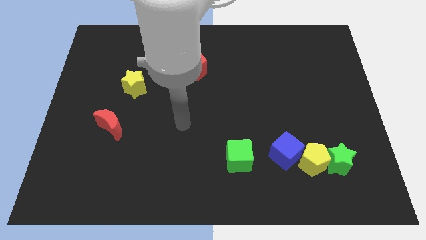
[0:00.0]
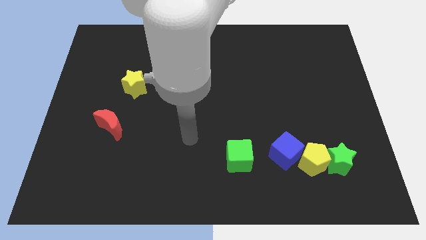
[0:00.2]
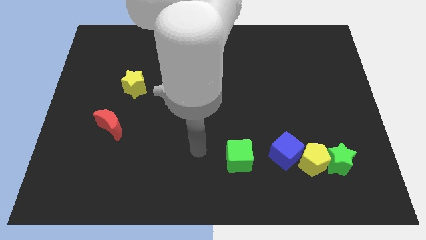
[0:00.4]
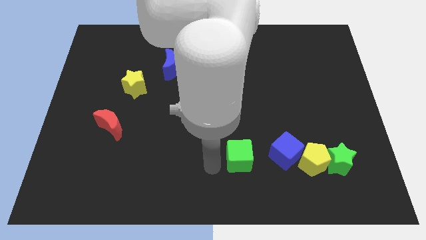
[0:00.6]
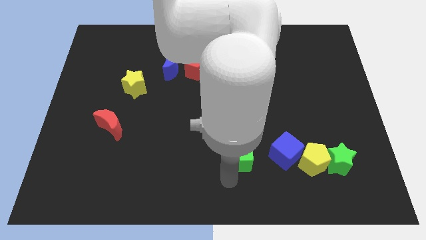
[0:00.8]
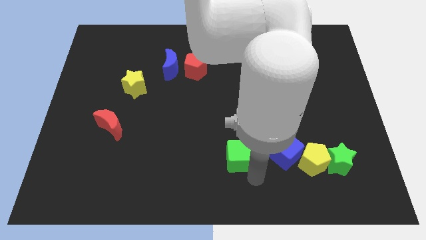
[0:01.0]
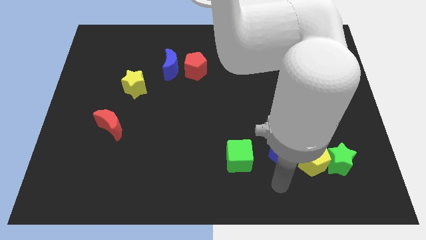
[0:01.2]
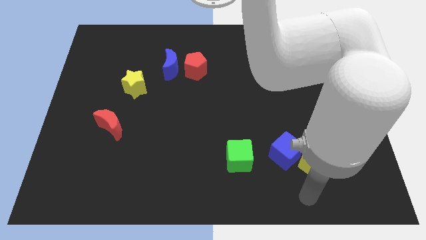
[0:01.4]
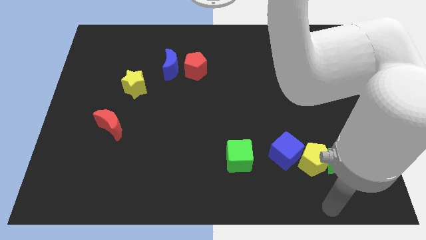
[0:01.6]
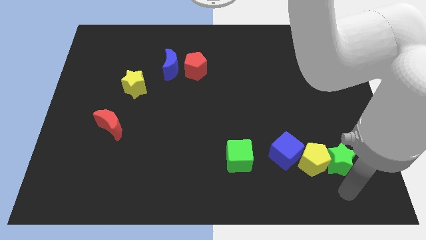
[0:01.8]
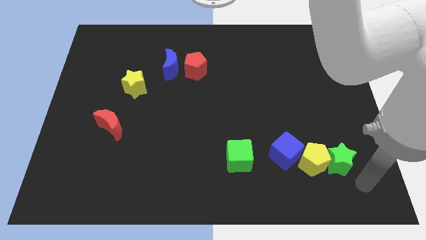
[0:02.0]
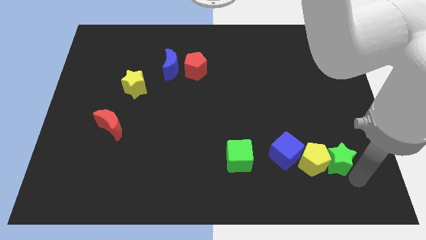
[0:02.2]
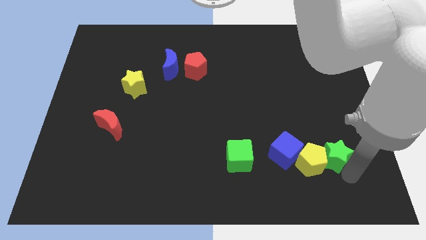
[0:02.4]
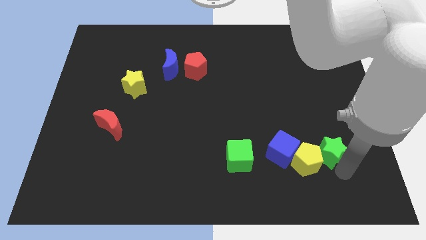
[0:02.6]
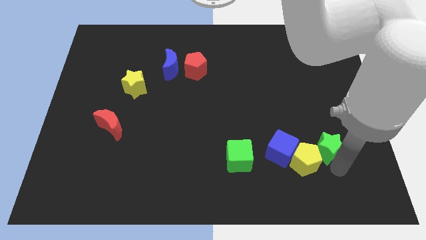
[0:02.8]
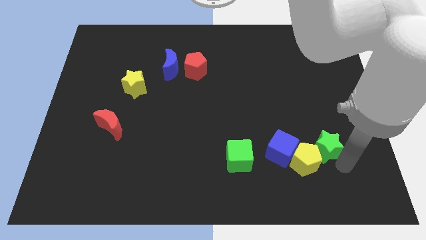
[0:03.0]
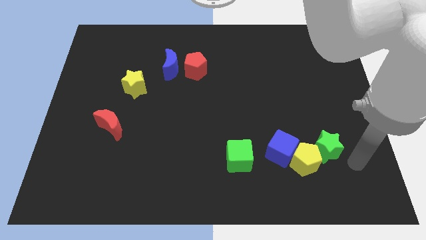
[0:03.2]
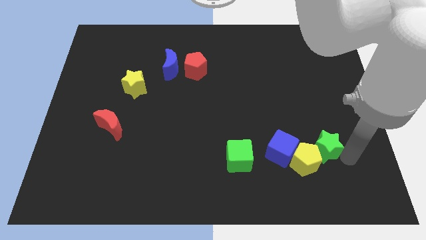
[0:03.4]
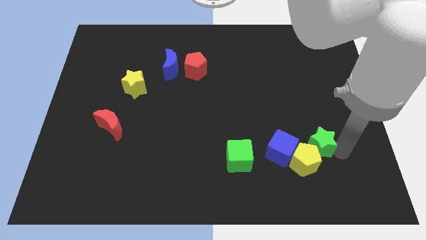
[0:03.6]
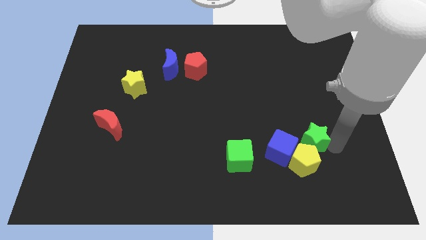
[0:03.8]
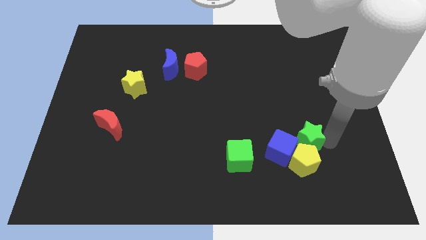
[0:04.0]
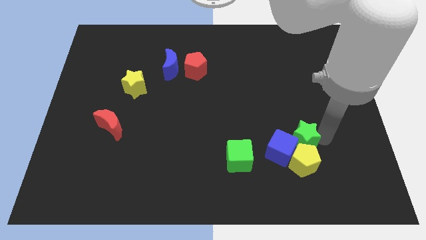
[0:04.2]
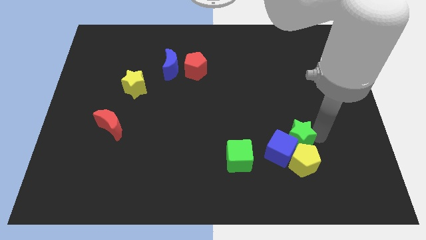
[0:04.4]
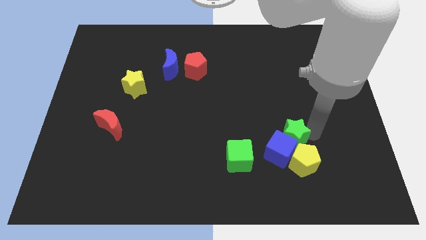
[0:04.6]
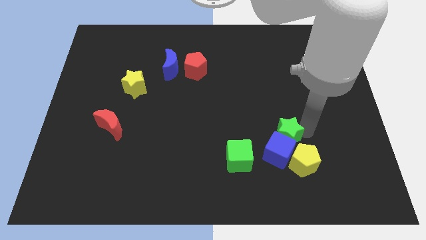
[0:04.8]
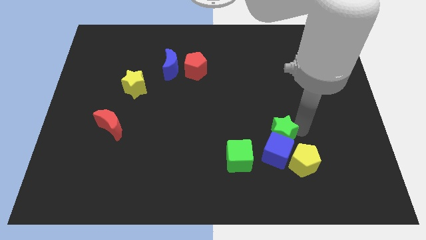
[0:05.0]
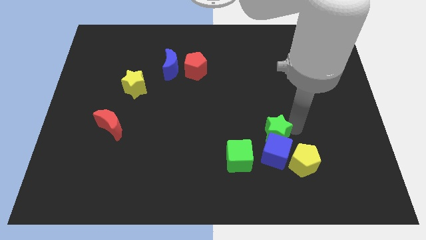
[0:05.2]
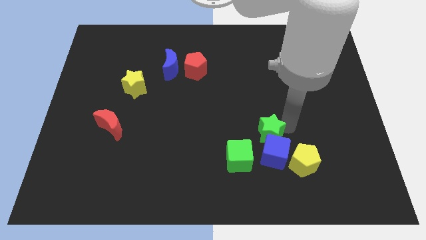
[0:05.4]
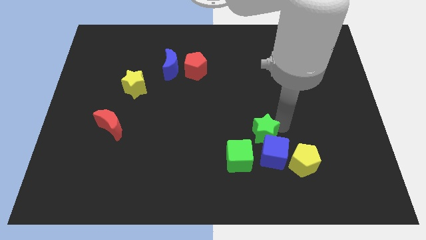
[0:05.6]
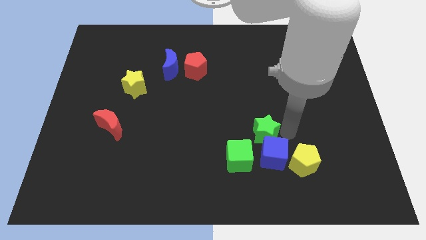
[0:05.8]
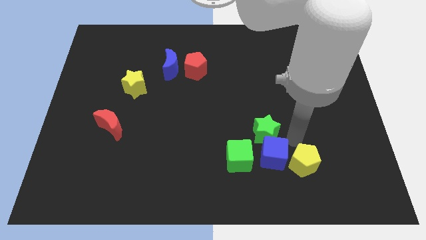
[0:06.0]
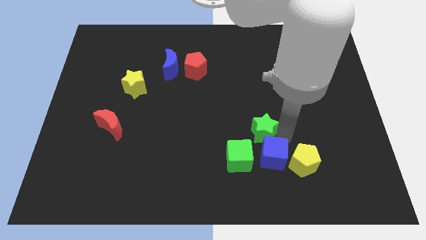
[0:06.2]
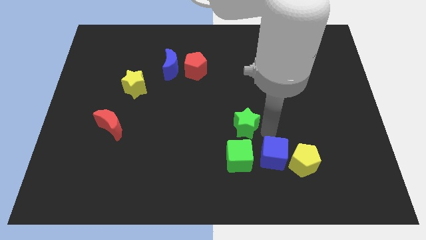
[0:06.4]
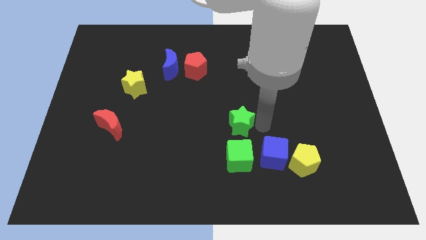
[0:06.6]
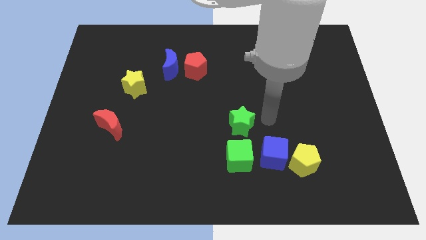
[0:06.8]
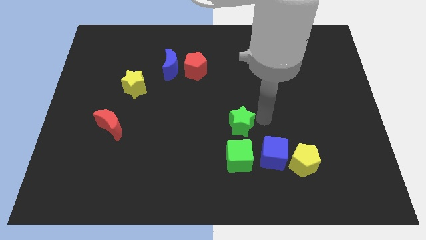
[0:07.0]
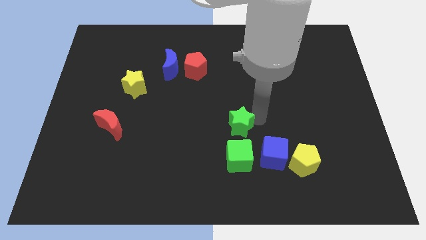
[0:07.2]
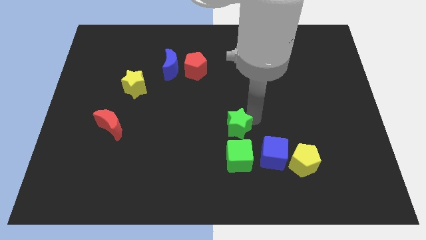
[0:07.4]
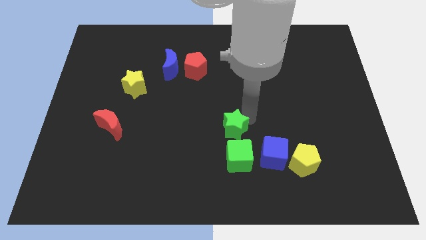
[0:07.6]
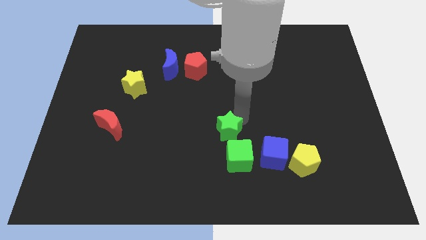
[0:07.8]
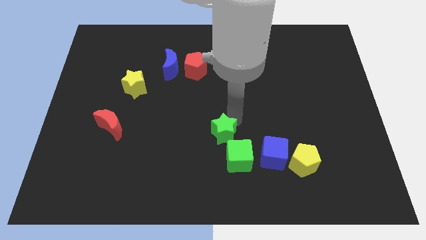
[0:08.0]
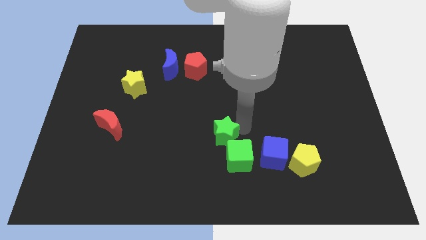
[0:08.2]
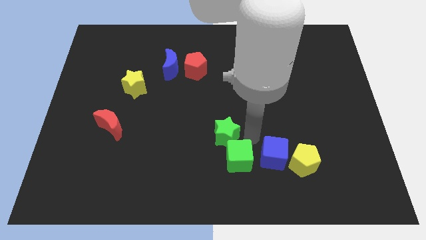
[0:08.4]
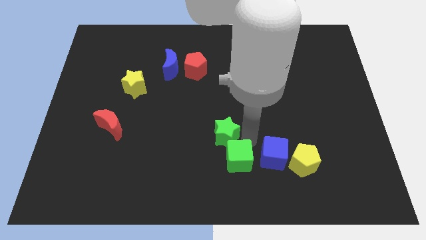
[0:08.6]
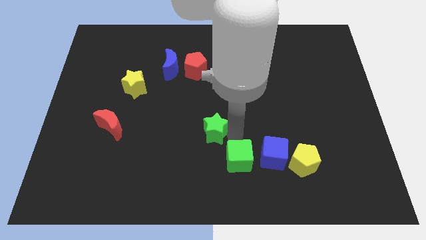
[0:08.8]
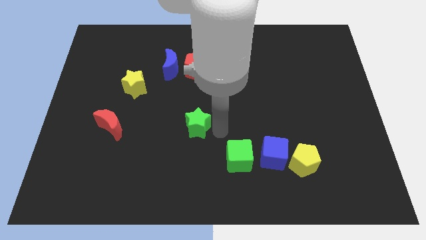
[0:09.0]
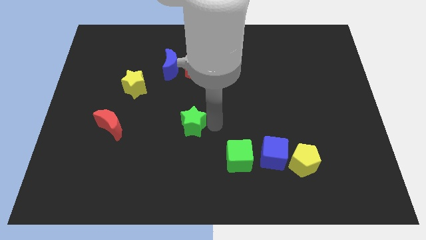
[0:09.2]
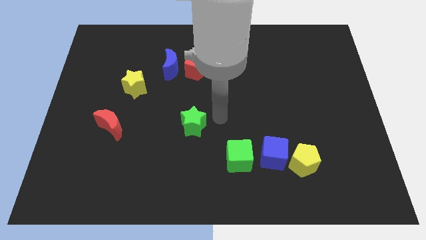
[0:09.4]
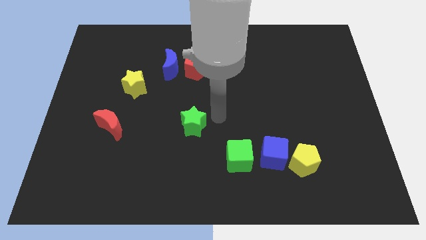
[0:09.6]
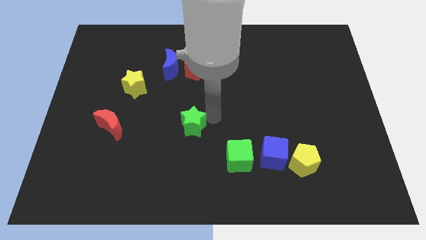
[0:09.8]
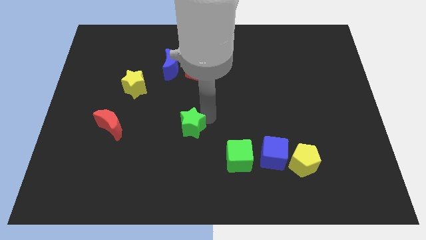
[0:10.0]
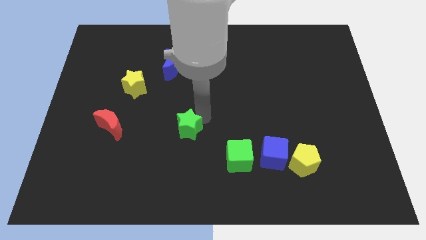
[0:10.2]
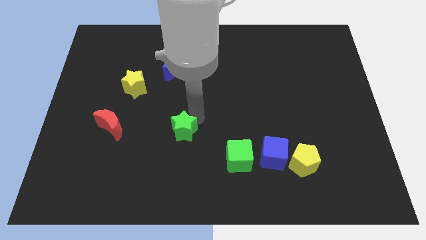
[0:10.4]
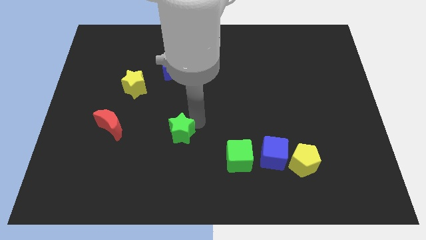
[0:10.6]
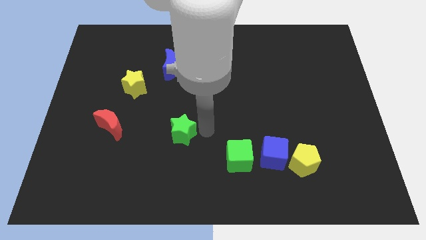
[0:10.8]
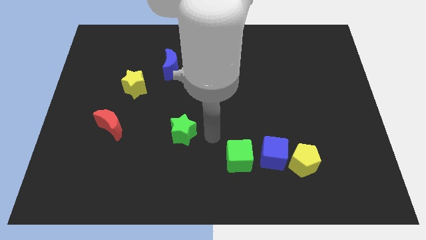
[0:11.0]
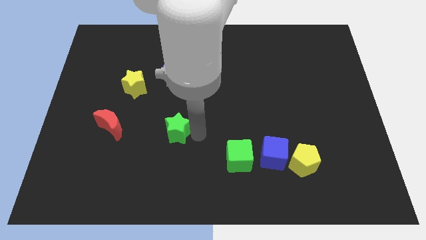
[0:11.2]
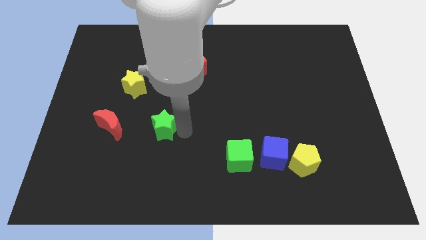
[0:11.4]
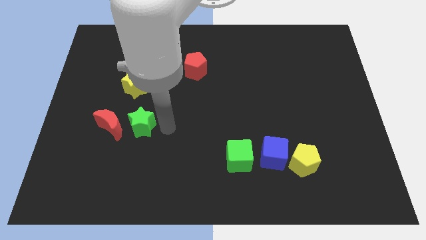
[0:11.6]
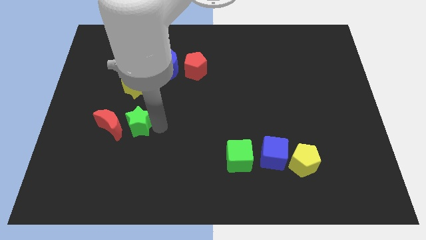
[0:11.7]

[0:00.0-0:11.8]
move the green star towards the red moon
